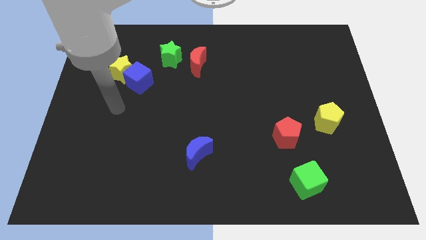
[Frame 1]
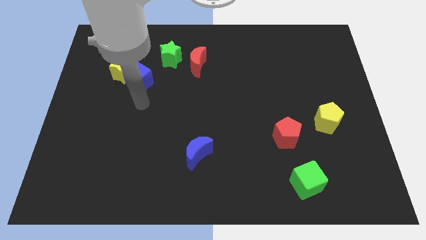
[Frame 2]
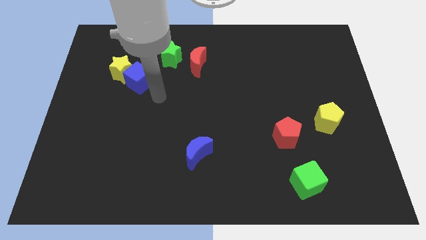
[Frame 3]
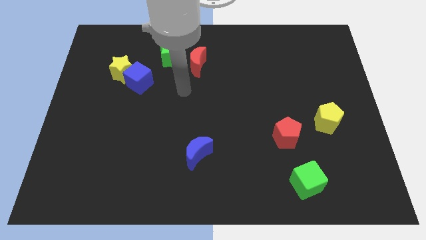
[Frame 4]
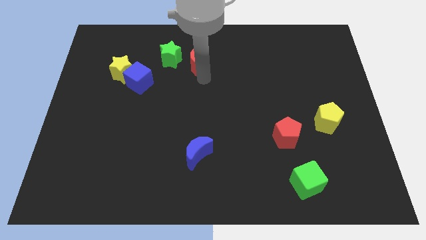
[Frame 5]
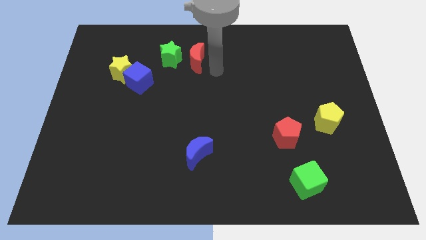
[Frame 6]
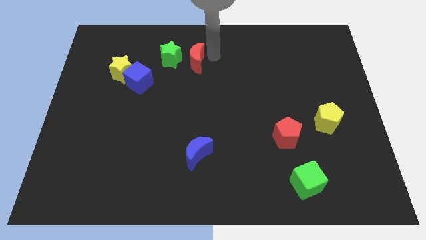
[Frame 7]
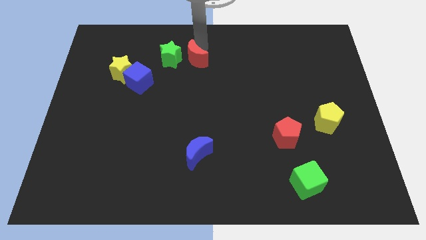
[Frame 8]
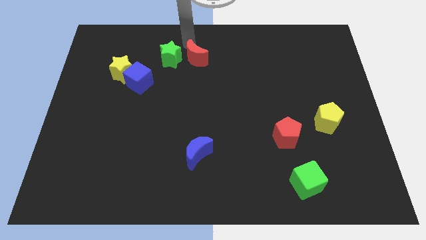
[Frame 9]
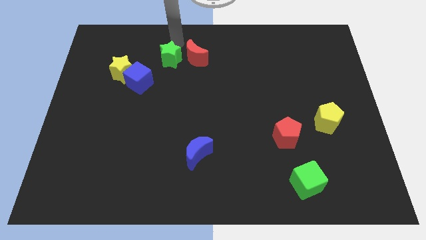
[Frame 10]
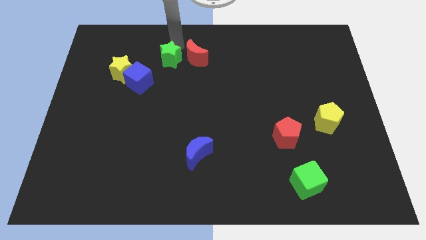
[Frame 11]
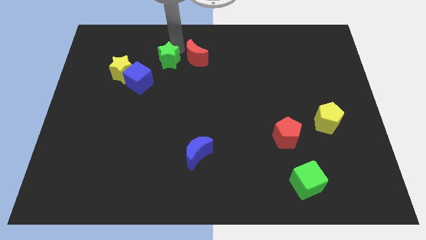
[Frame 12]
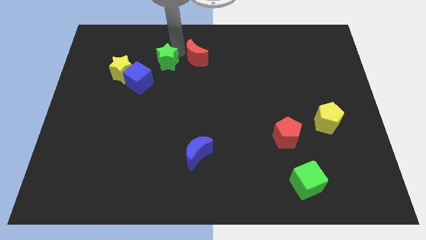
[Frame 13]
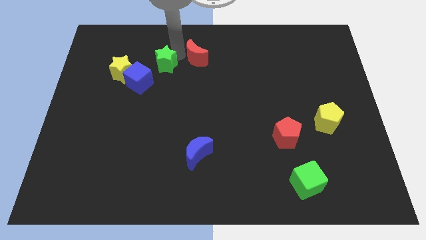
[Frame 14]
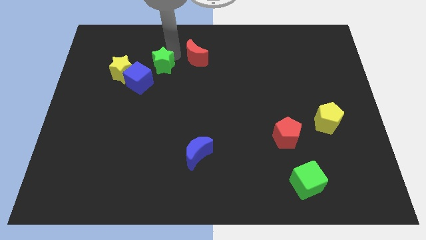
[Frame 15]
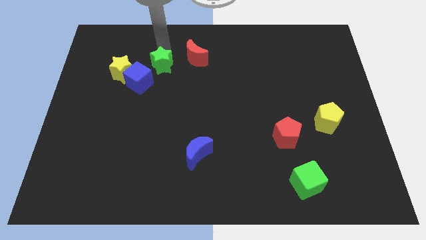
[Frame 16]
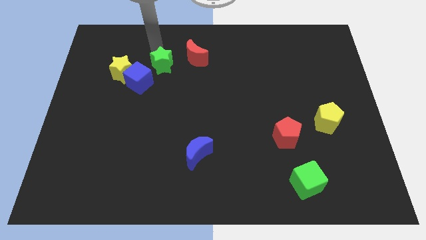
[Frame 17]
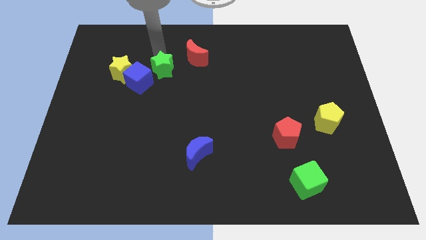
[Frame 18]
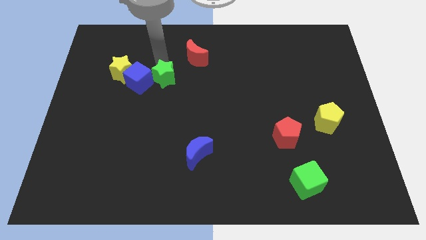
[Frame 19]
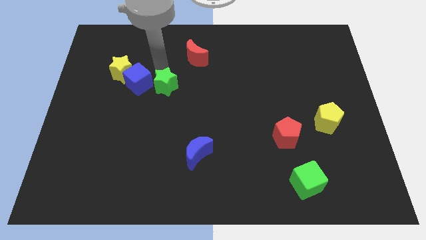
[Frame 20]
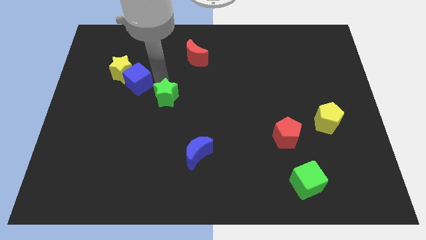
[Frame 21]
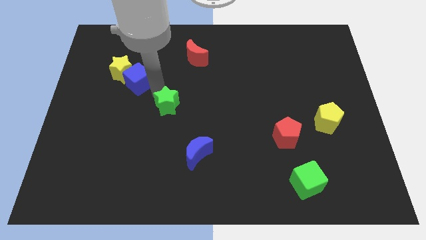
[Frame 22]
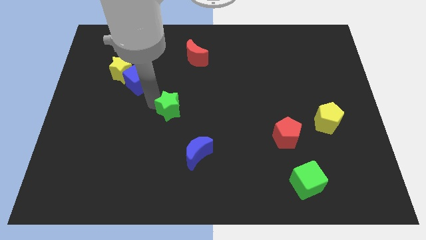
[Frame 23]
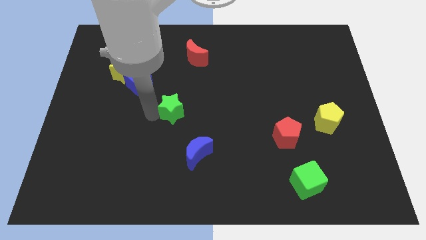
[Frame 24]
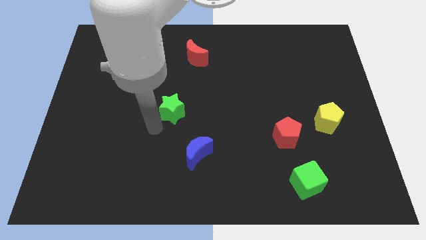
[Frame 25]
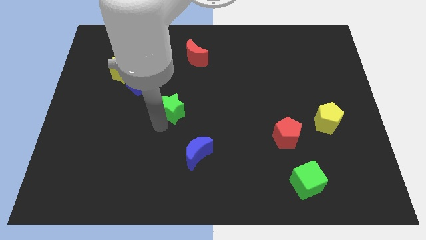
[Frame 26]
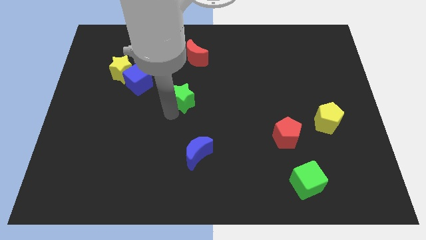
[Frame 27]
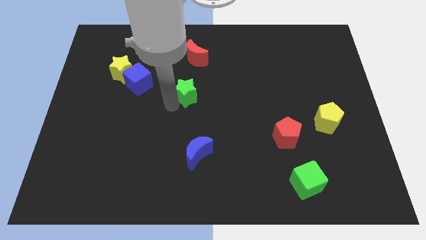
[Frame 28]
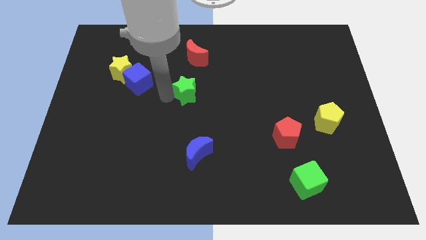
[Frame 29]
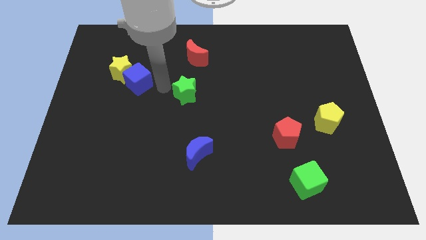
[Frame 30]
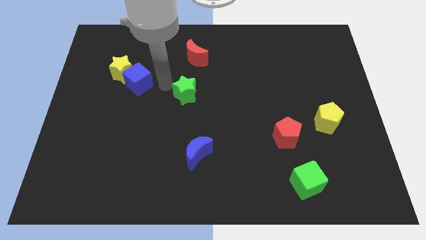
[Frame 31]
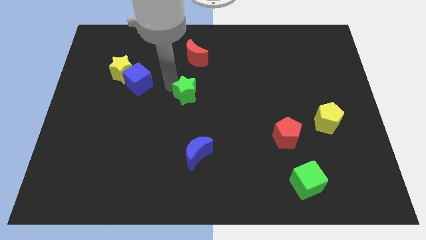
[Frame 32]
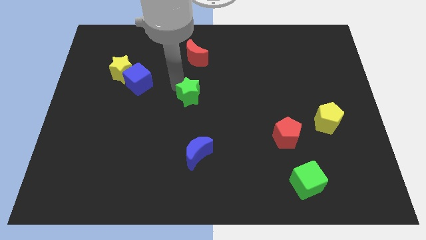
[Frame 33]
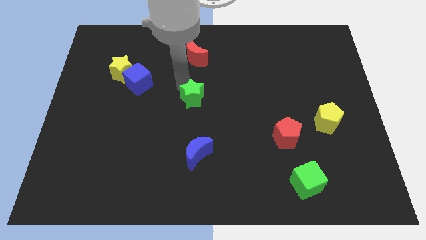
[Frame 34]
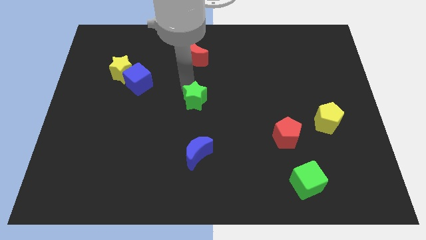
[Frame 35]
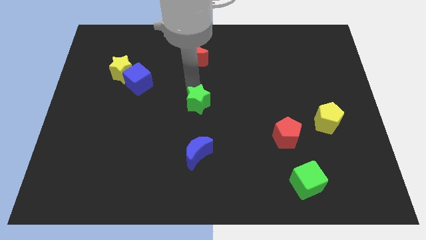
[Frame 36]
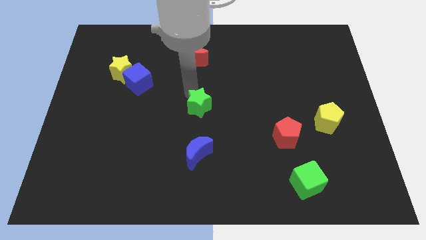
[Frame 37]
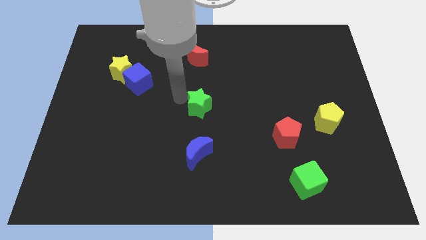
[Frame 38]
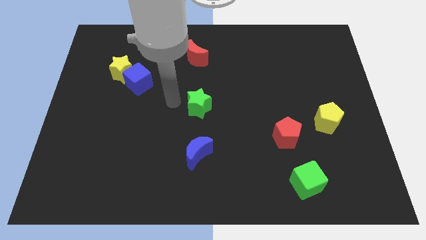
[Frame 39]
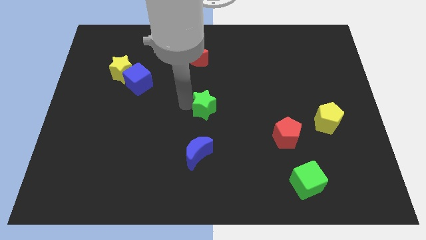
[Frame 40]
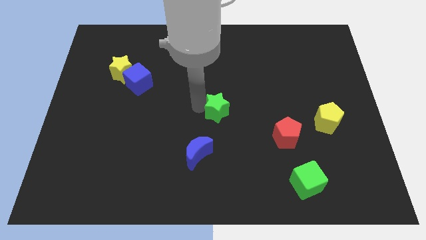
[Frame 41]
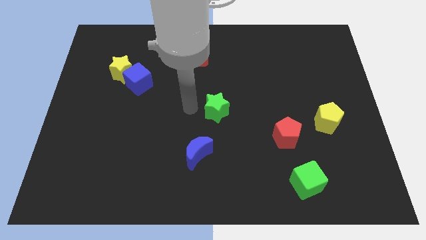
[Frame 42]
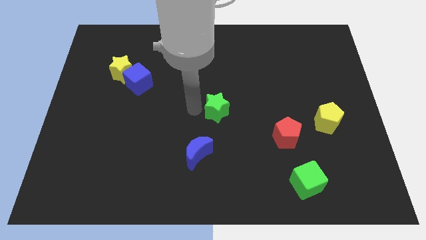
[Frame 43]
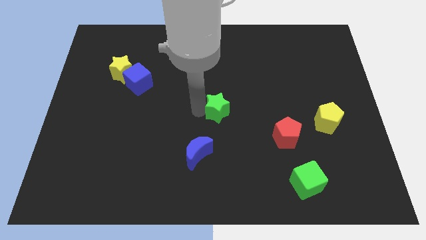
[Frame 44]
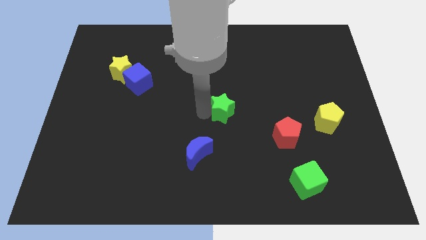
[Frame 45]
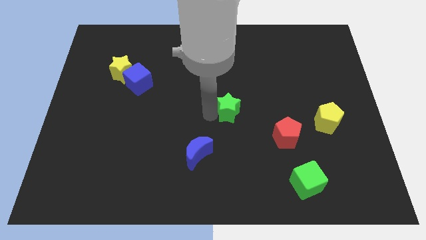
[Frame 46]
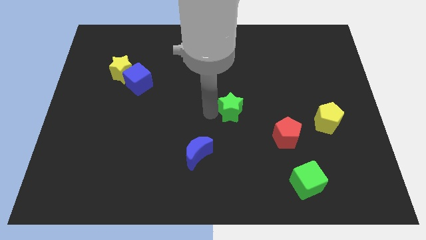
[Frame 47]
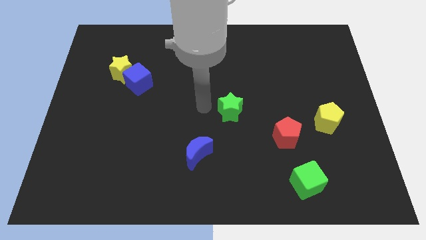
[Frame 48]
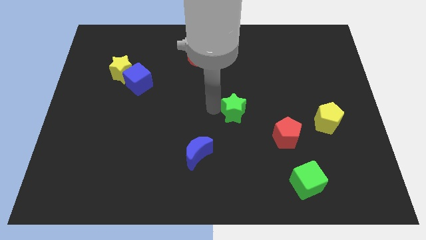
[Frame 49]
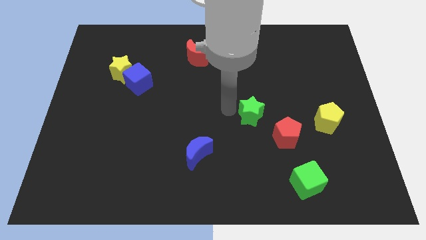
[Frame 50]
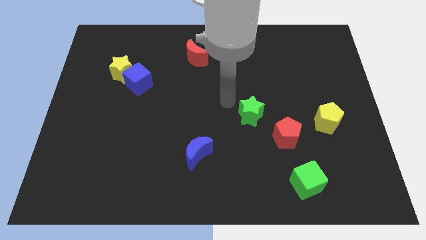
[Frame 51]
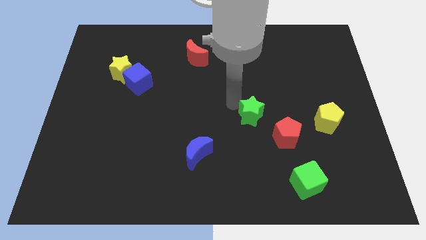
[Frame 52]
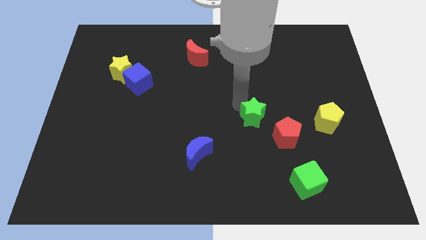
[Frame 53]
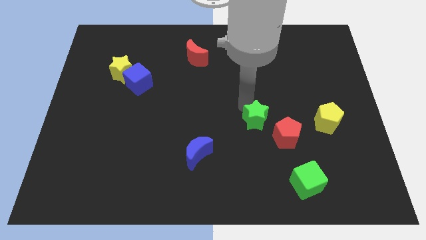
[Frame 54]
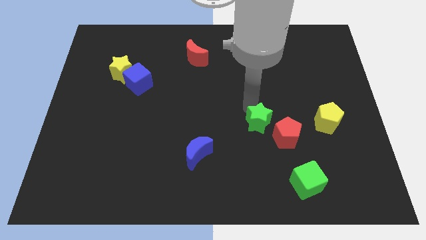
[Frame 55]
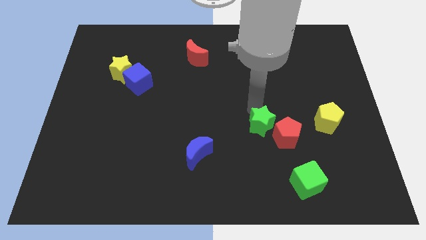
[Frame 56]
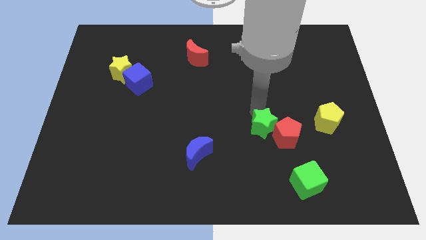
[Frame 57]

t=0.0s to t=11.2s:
move the green star towards the red pentagon
